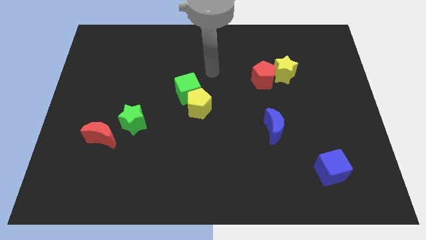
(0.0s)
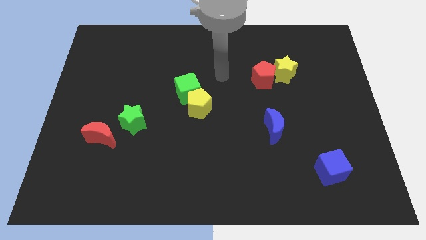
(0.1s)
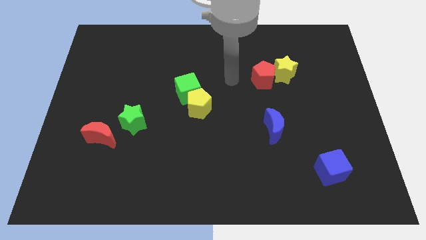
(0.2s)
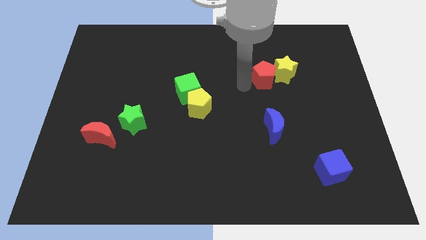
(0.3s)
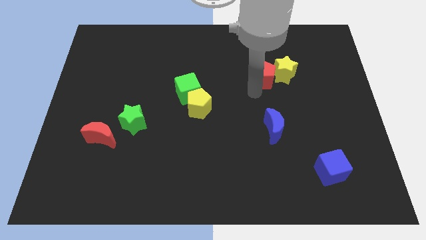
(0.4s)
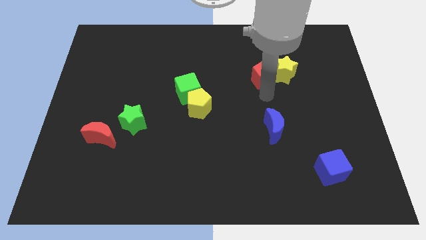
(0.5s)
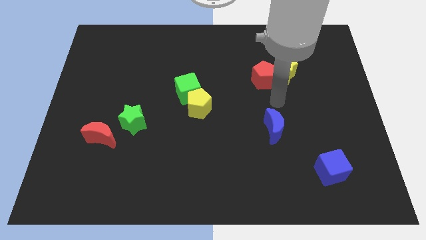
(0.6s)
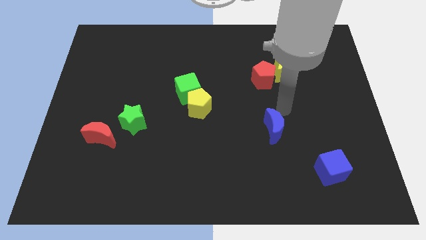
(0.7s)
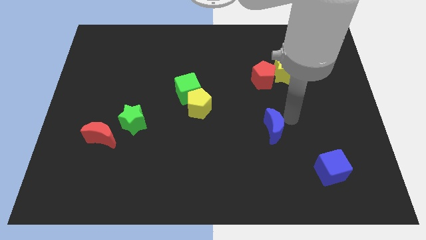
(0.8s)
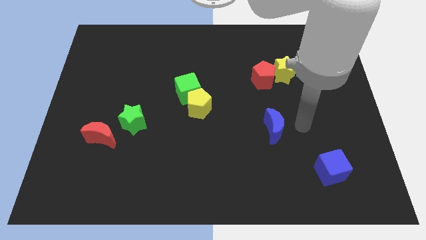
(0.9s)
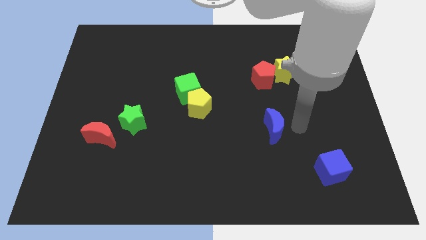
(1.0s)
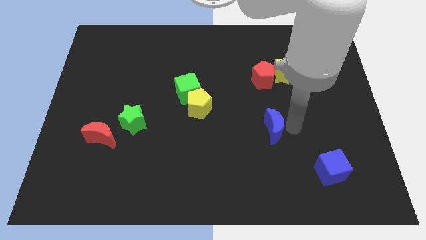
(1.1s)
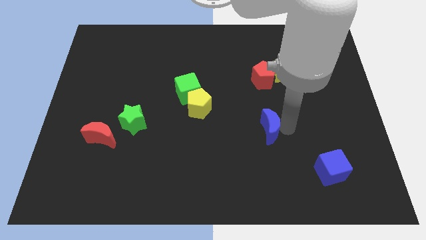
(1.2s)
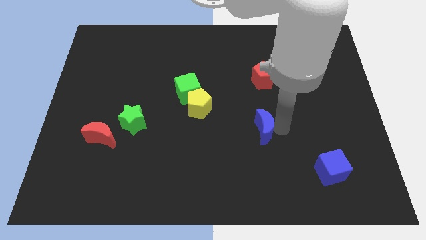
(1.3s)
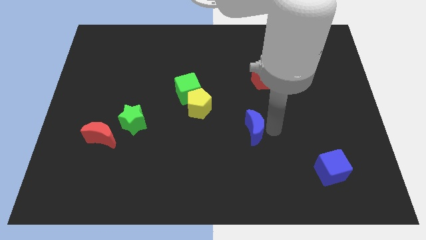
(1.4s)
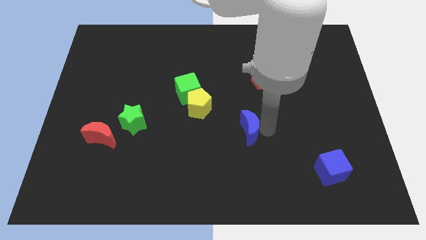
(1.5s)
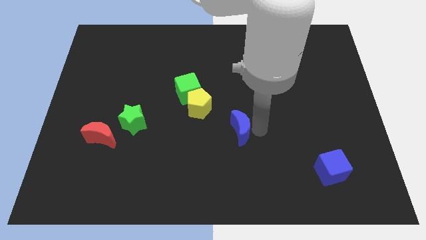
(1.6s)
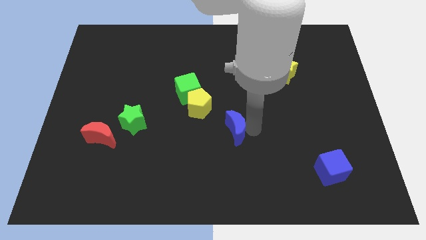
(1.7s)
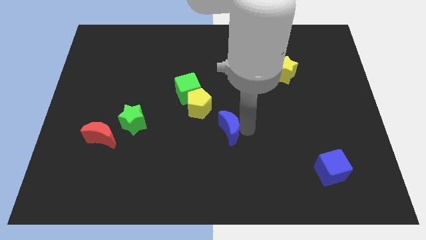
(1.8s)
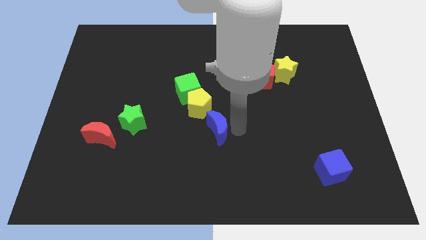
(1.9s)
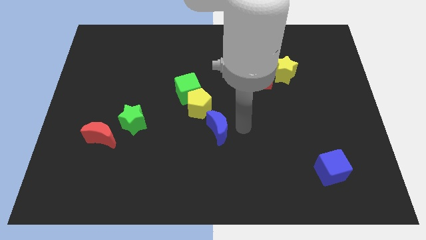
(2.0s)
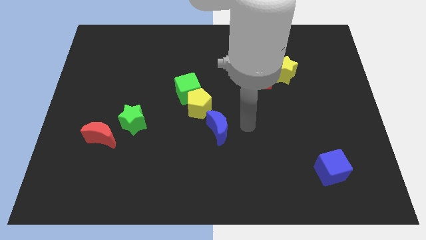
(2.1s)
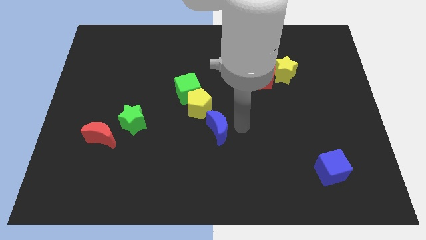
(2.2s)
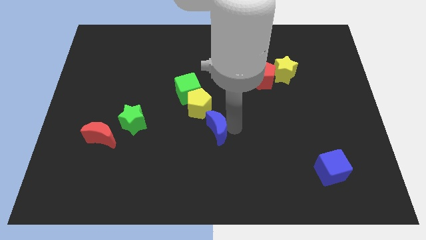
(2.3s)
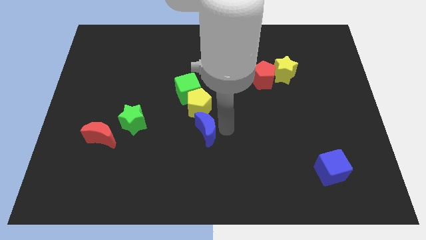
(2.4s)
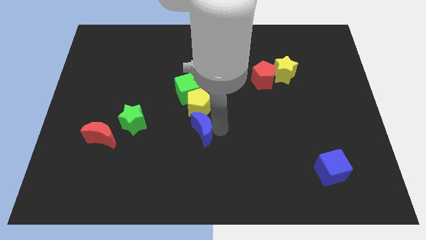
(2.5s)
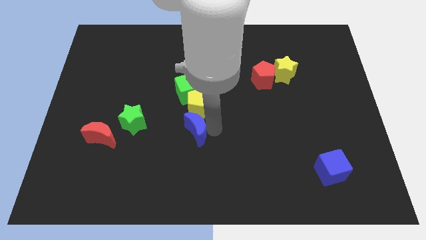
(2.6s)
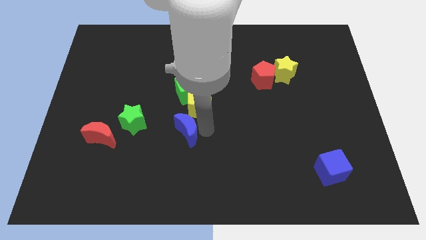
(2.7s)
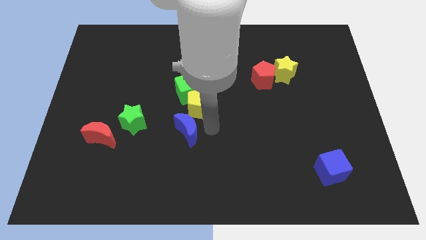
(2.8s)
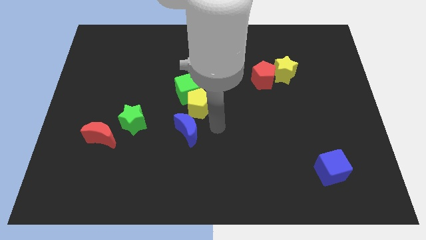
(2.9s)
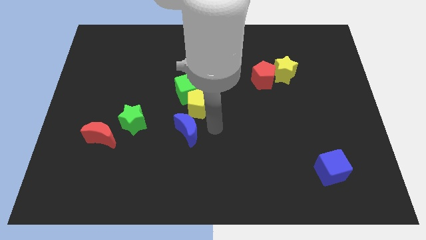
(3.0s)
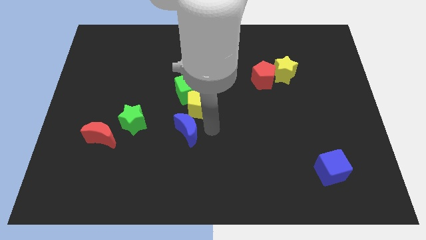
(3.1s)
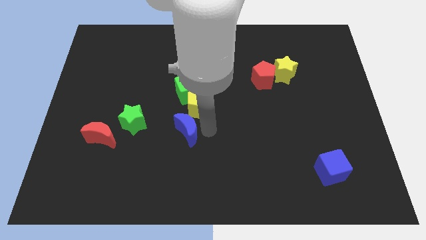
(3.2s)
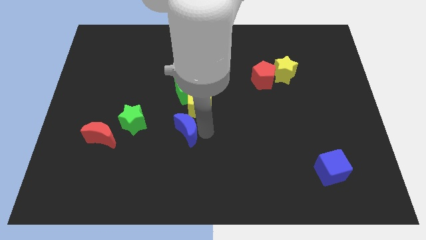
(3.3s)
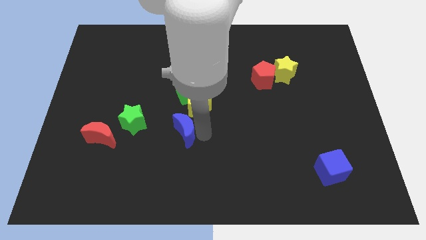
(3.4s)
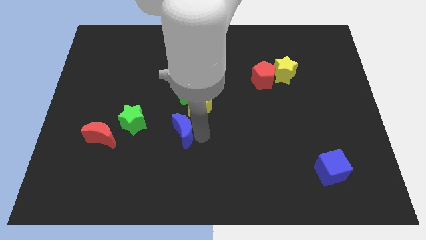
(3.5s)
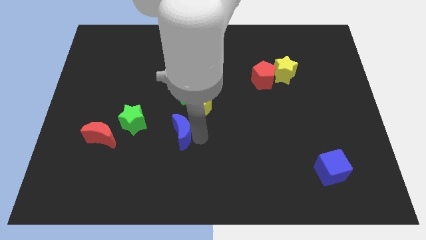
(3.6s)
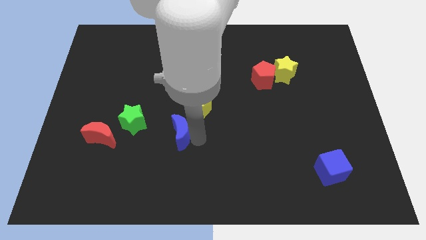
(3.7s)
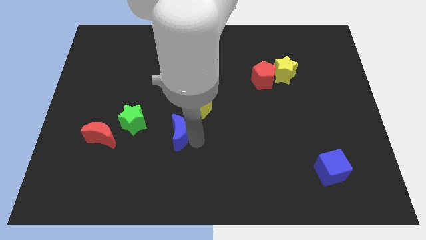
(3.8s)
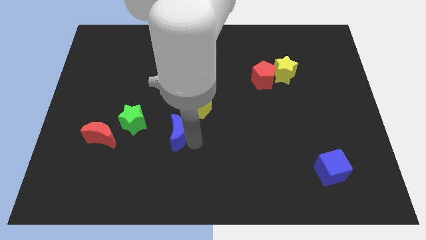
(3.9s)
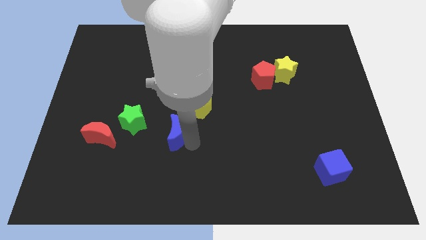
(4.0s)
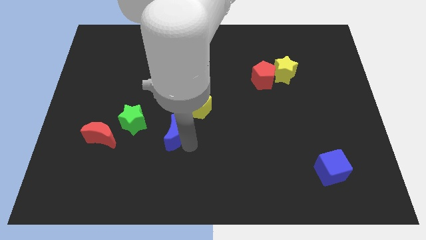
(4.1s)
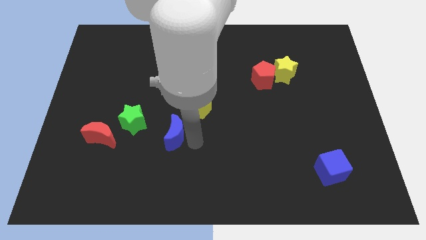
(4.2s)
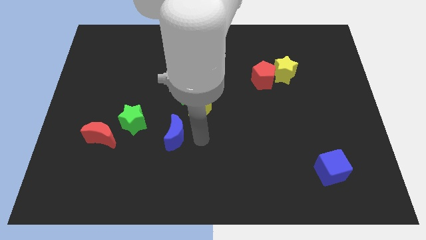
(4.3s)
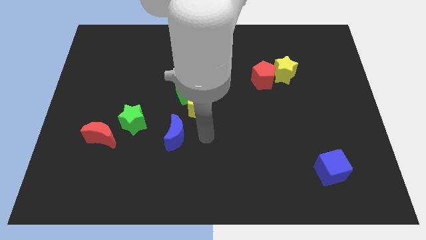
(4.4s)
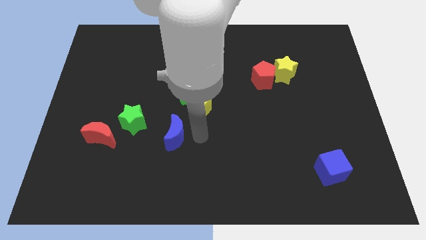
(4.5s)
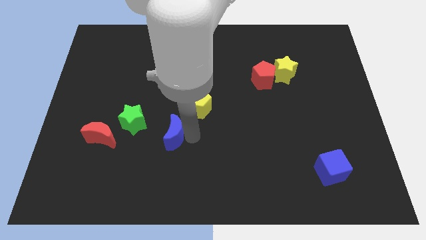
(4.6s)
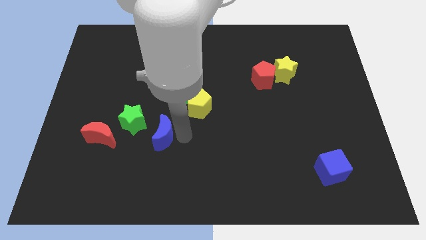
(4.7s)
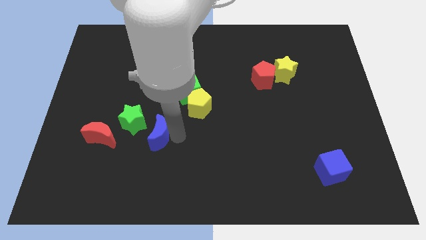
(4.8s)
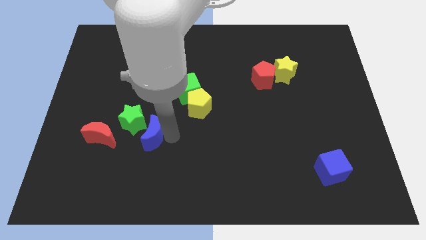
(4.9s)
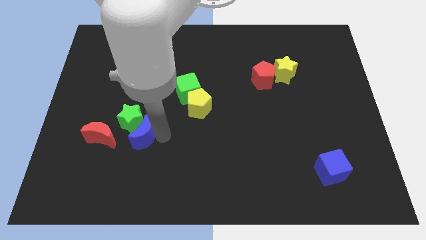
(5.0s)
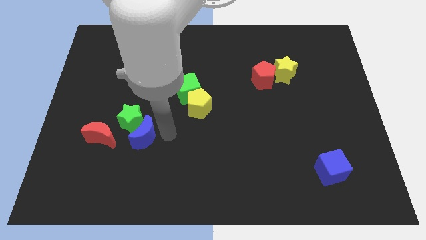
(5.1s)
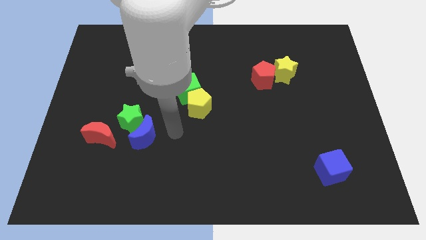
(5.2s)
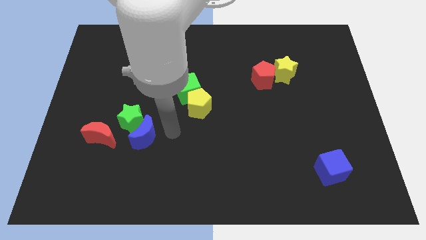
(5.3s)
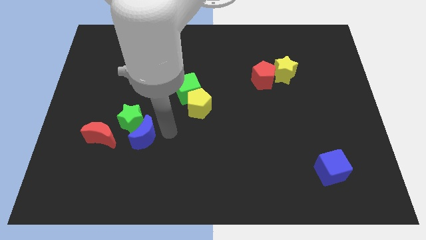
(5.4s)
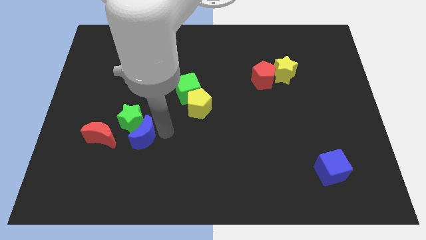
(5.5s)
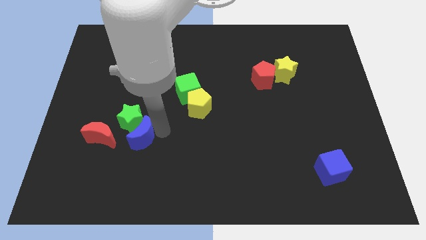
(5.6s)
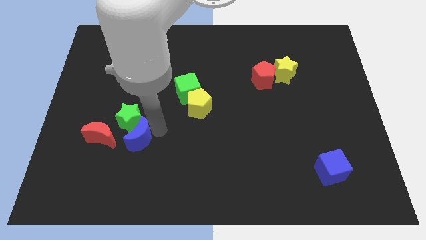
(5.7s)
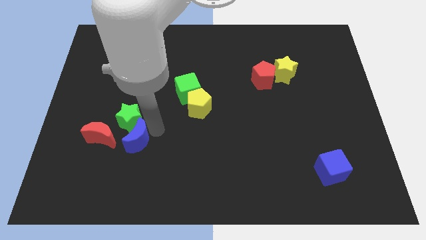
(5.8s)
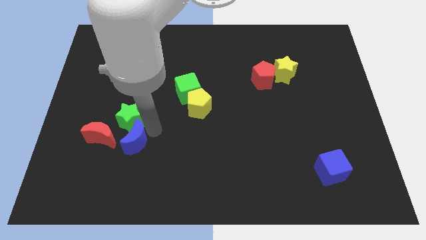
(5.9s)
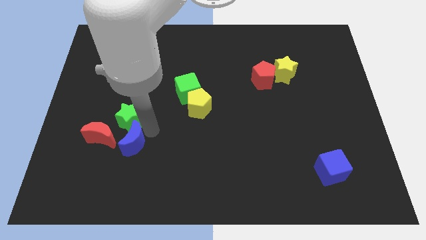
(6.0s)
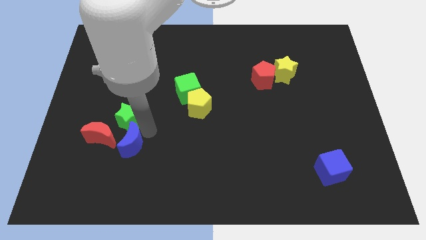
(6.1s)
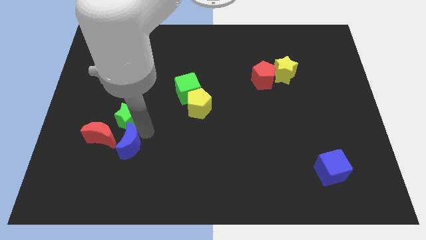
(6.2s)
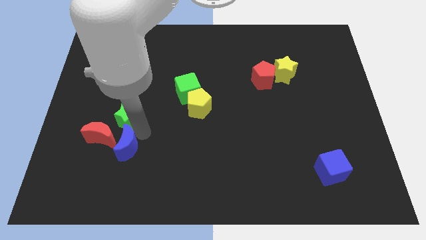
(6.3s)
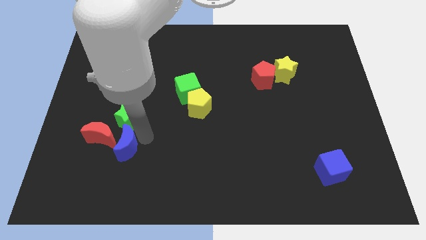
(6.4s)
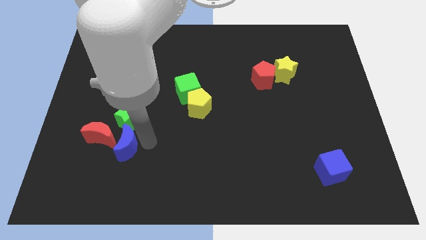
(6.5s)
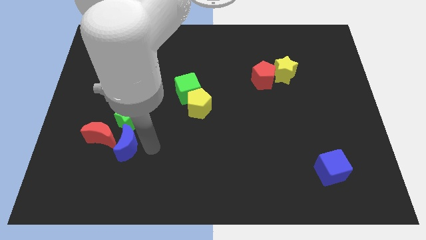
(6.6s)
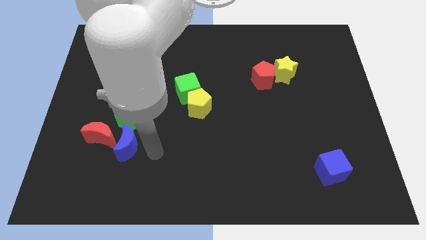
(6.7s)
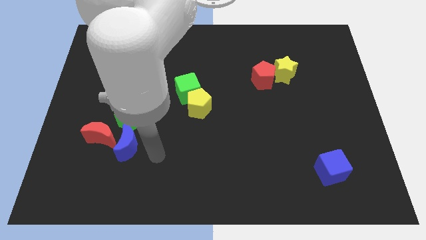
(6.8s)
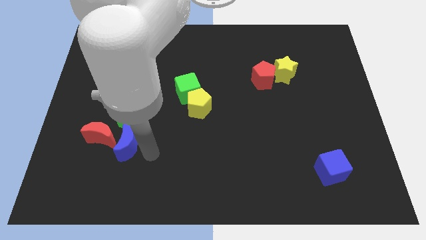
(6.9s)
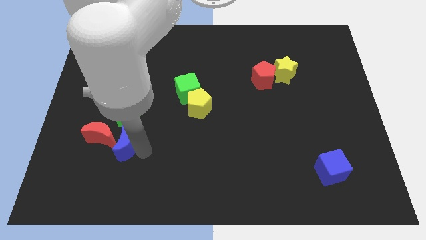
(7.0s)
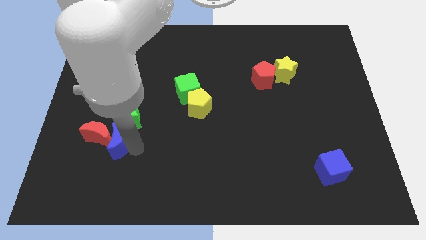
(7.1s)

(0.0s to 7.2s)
push the blue moon towards the red moon

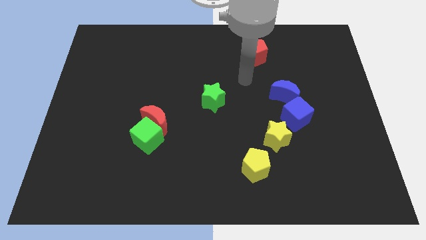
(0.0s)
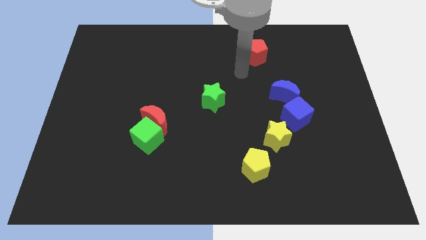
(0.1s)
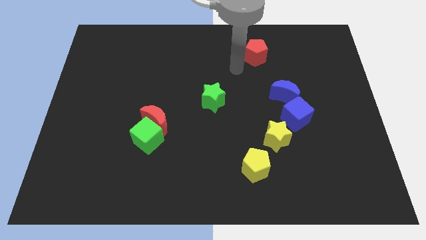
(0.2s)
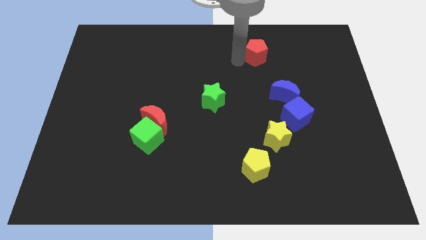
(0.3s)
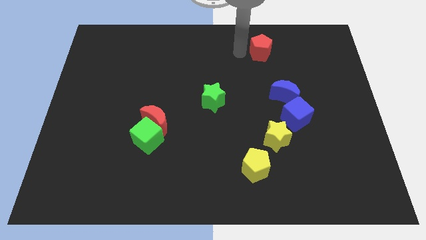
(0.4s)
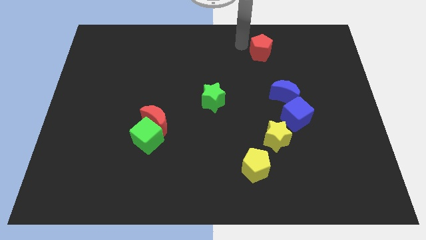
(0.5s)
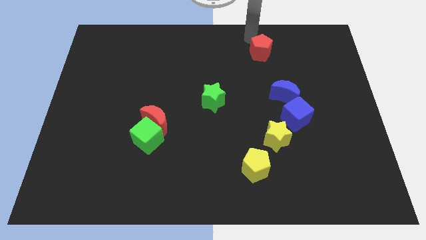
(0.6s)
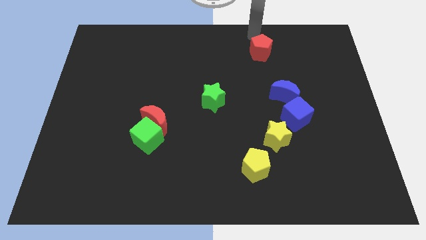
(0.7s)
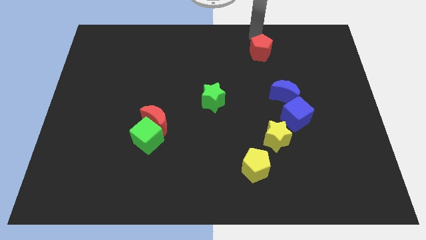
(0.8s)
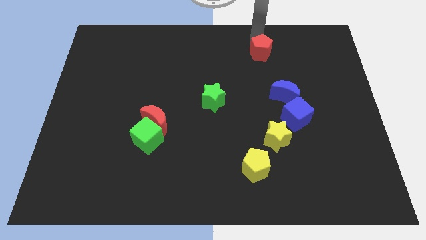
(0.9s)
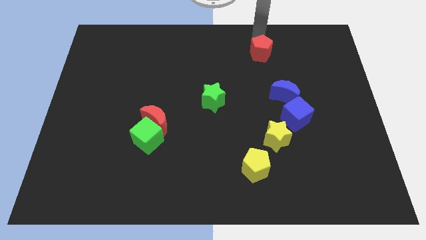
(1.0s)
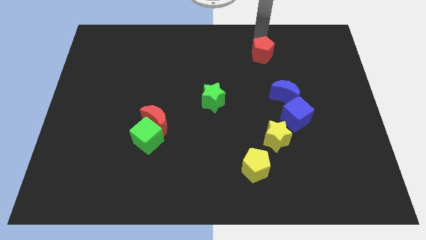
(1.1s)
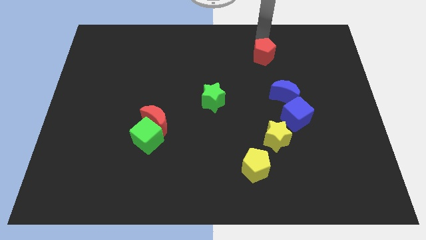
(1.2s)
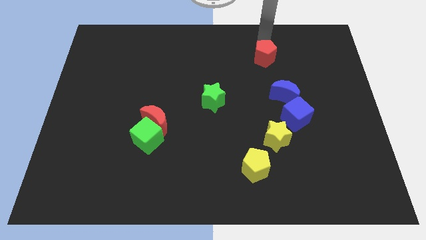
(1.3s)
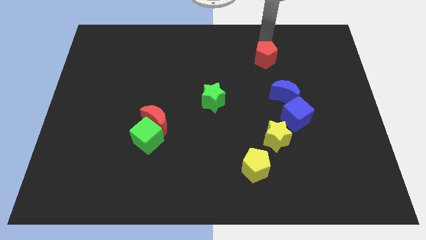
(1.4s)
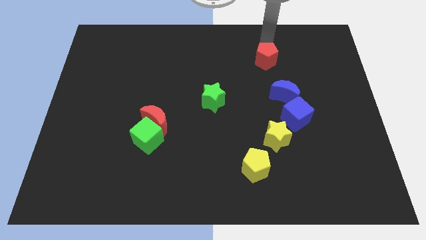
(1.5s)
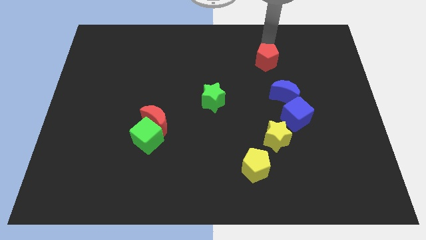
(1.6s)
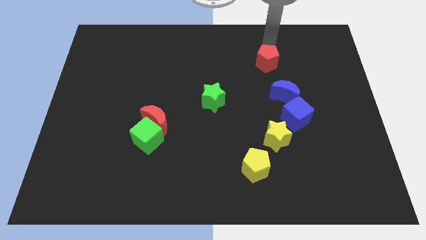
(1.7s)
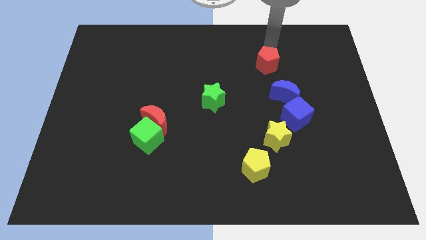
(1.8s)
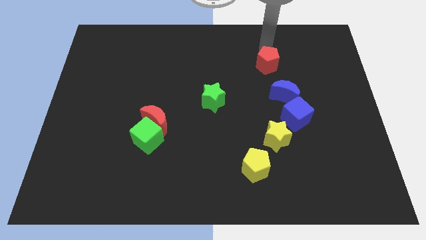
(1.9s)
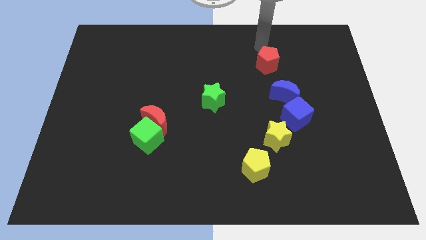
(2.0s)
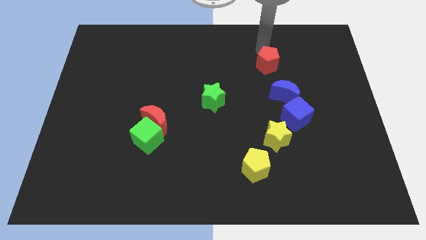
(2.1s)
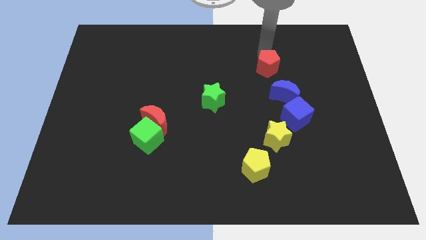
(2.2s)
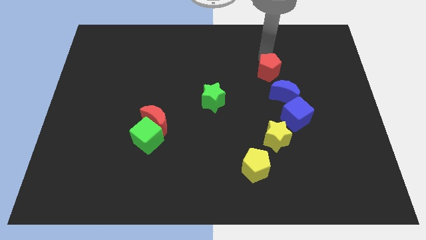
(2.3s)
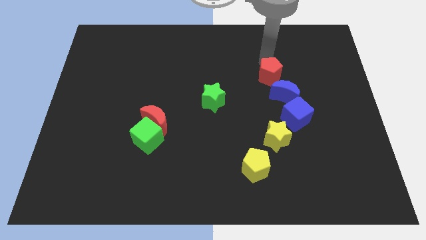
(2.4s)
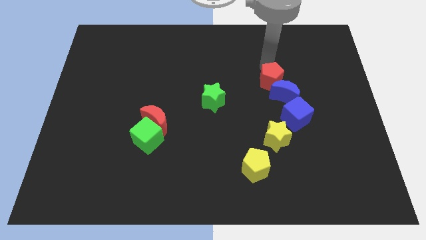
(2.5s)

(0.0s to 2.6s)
put the red pentagon towards the blue moon
